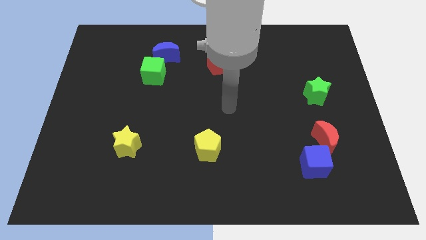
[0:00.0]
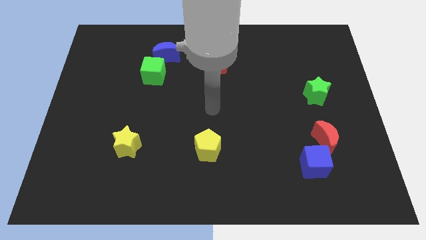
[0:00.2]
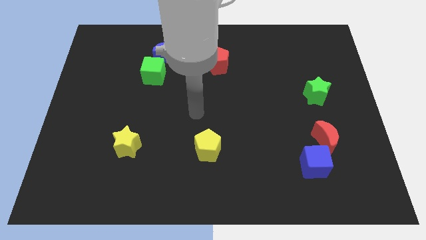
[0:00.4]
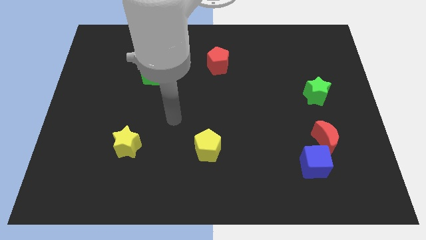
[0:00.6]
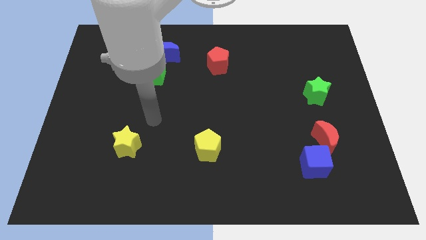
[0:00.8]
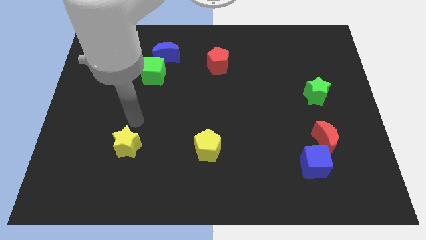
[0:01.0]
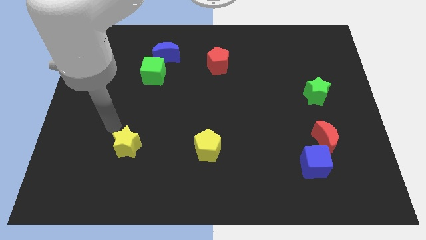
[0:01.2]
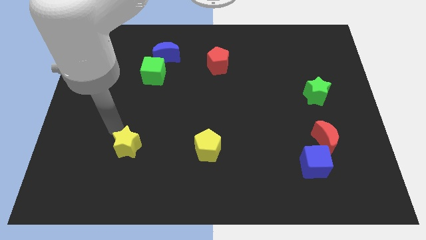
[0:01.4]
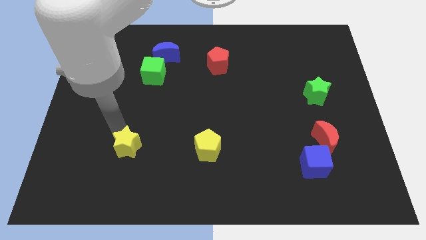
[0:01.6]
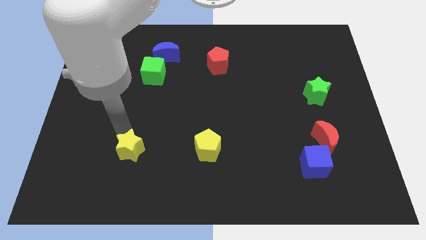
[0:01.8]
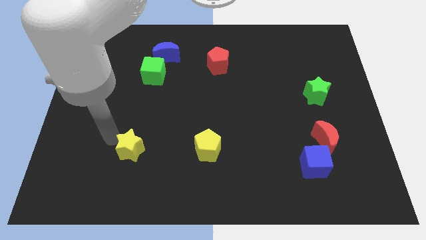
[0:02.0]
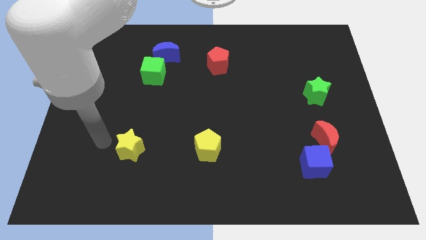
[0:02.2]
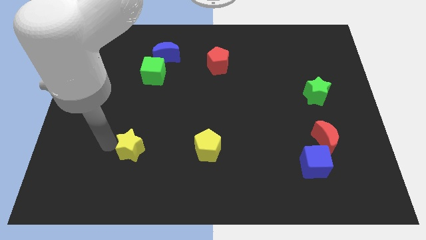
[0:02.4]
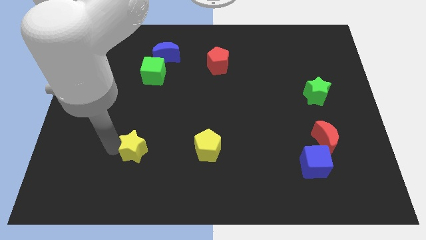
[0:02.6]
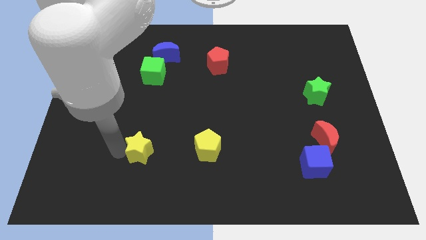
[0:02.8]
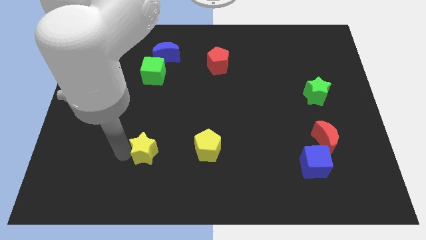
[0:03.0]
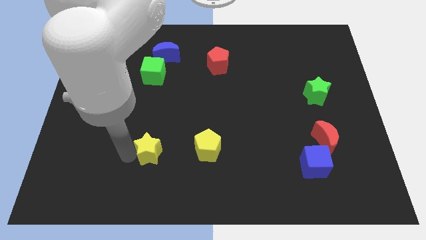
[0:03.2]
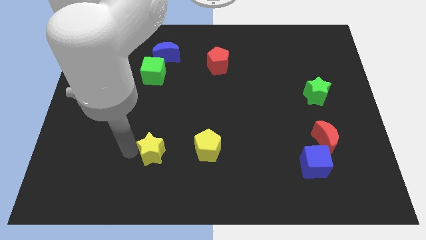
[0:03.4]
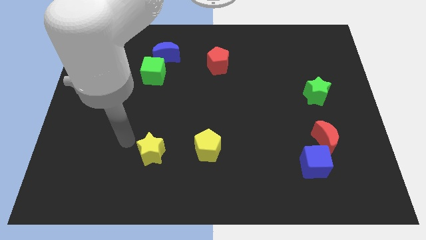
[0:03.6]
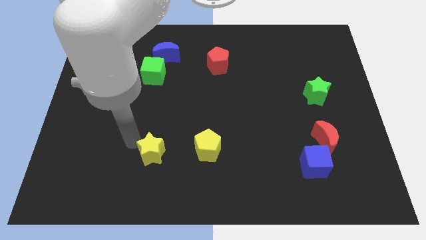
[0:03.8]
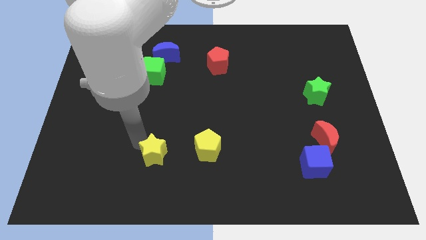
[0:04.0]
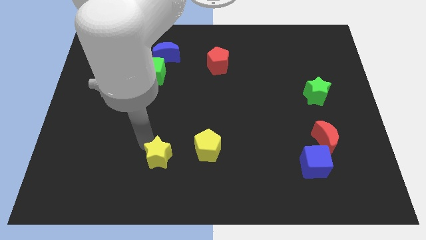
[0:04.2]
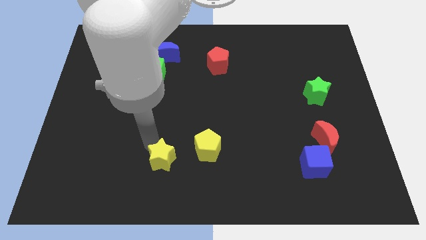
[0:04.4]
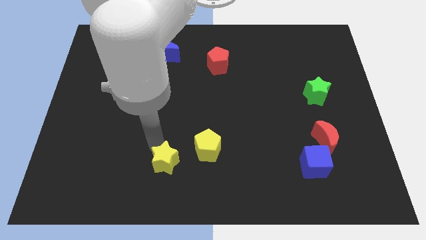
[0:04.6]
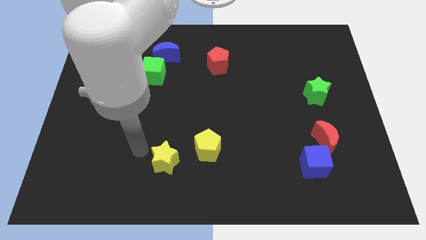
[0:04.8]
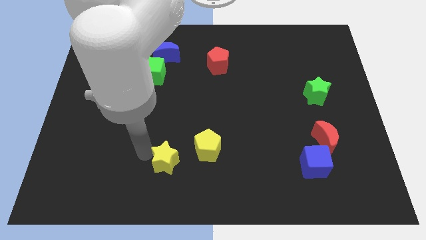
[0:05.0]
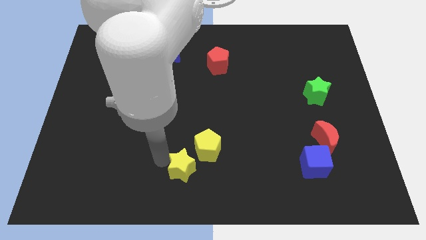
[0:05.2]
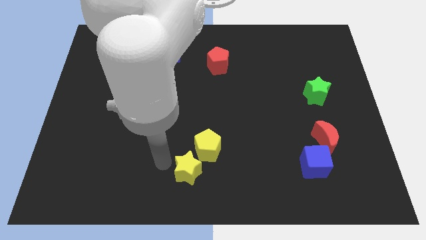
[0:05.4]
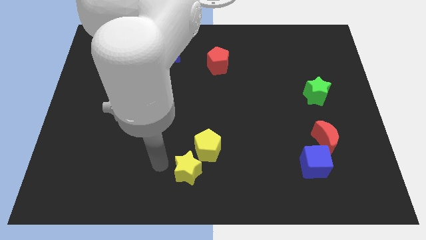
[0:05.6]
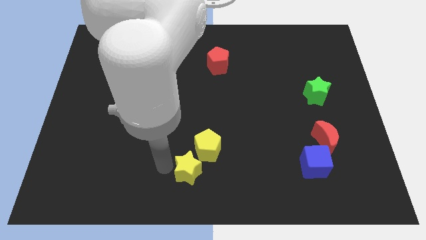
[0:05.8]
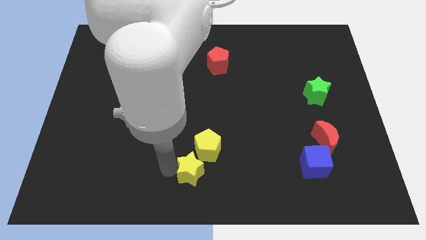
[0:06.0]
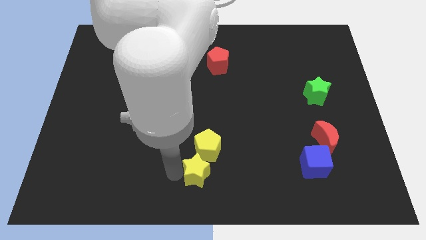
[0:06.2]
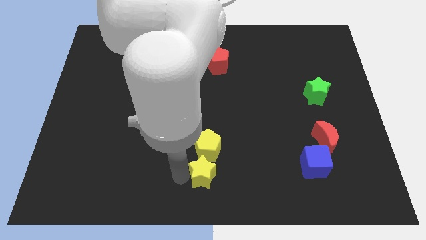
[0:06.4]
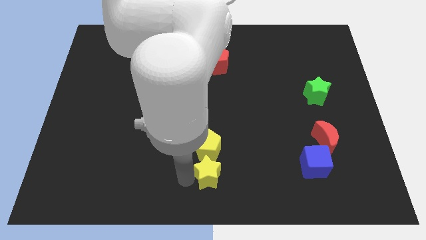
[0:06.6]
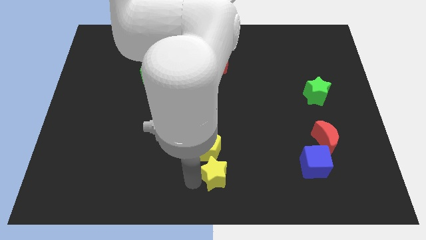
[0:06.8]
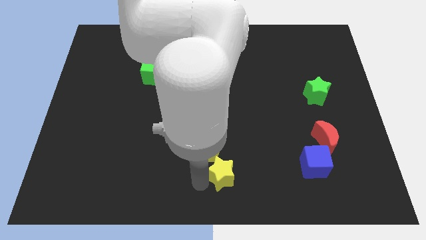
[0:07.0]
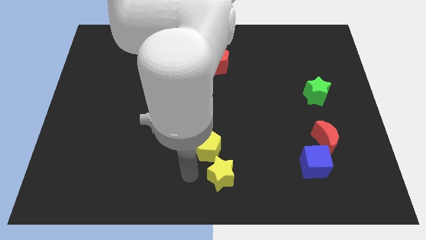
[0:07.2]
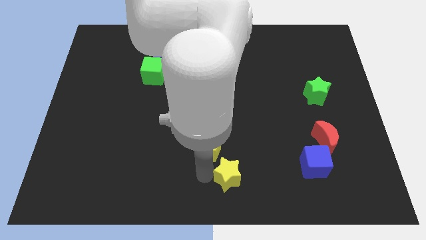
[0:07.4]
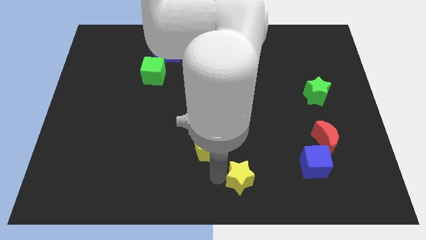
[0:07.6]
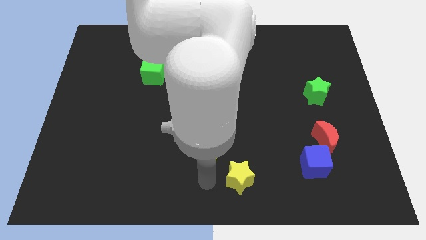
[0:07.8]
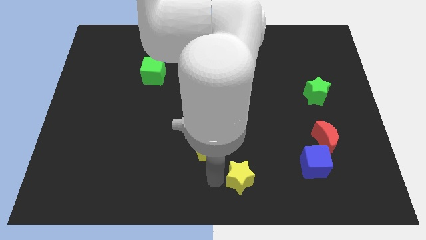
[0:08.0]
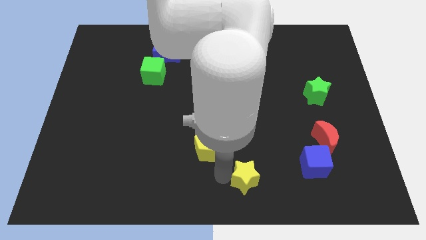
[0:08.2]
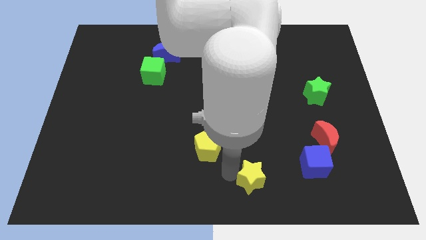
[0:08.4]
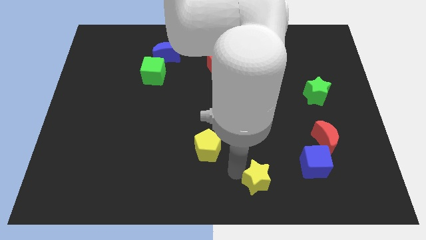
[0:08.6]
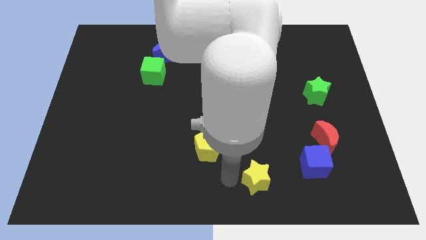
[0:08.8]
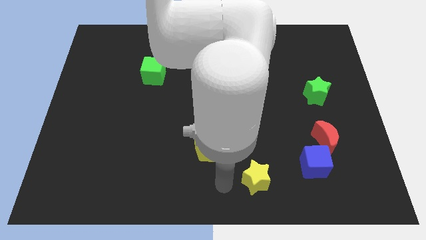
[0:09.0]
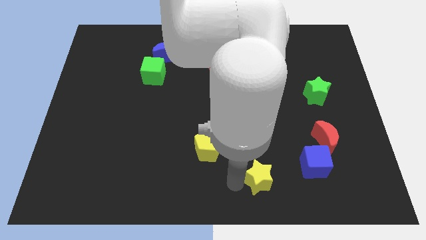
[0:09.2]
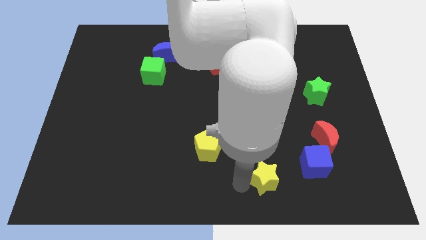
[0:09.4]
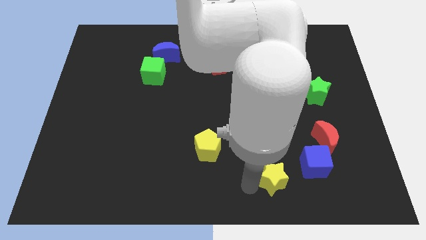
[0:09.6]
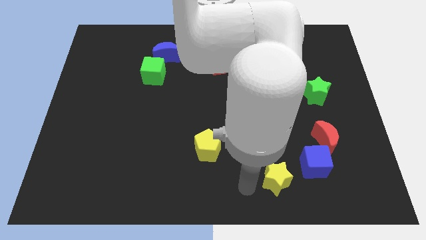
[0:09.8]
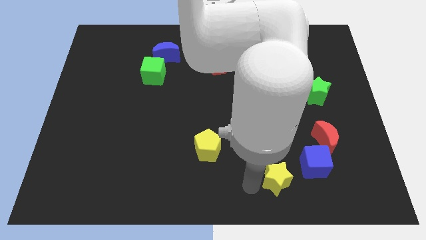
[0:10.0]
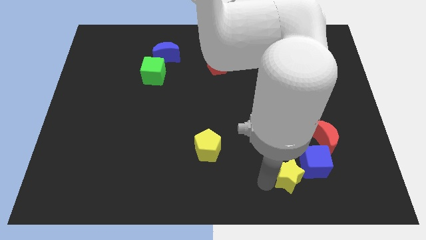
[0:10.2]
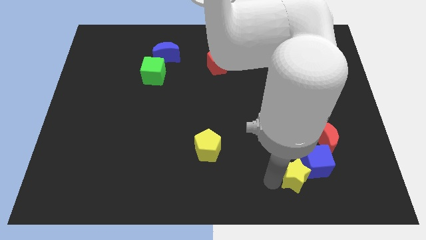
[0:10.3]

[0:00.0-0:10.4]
slide the yellow star to the blue cube

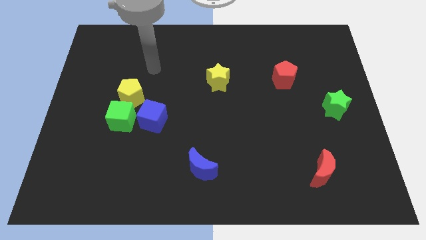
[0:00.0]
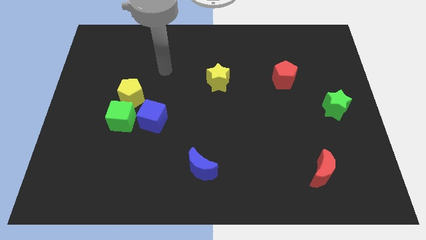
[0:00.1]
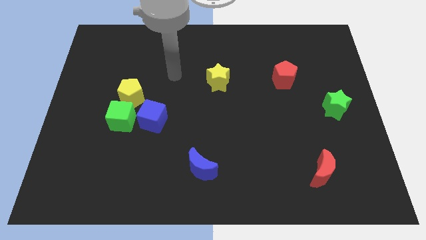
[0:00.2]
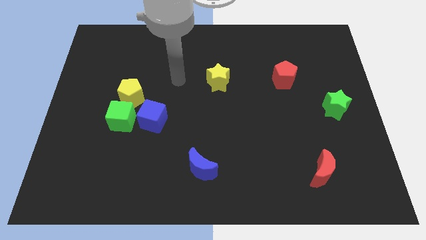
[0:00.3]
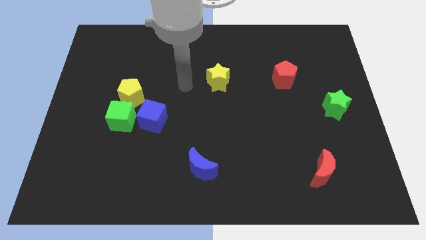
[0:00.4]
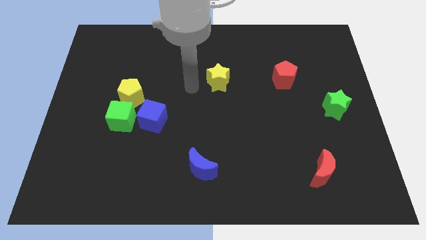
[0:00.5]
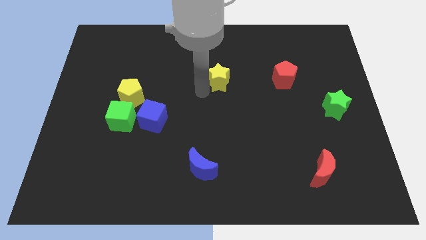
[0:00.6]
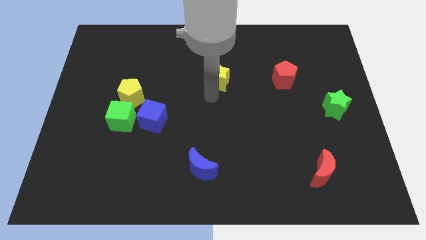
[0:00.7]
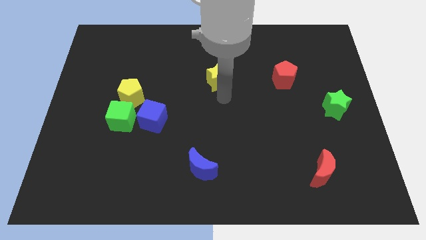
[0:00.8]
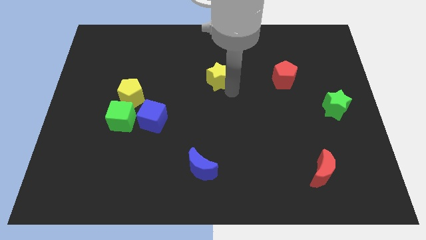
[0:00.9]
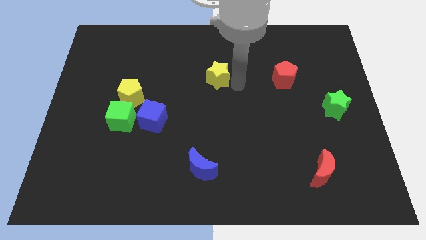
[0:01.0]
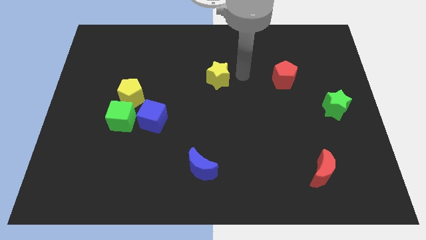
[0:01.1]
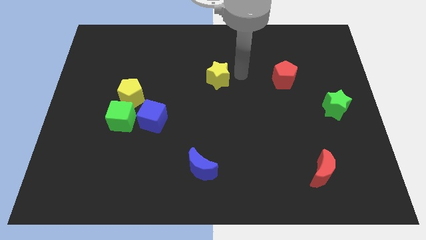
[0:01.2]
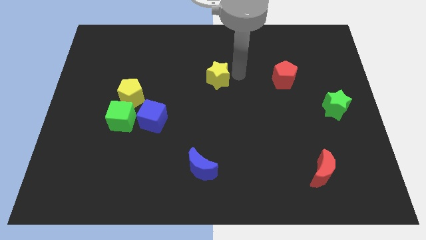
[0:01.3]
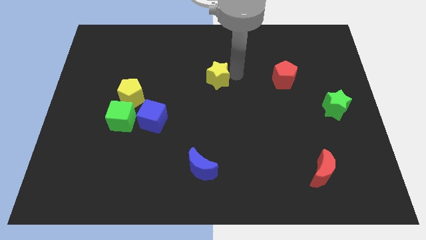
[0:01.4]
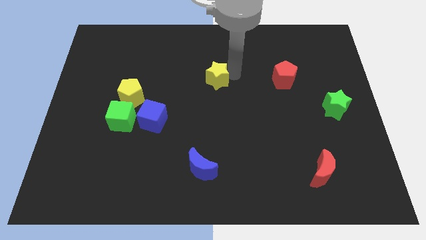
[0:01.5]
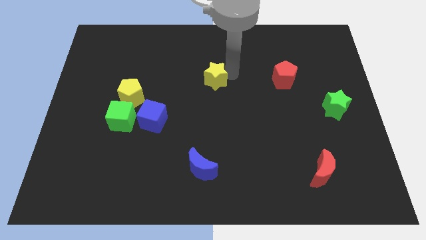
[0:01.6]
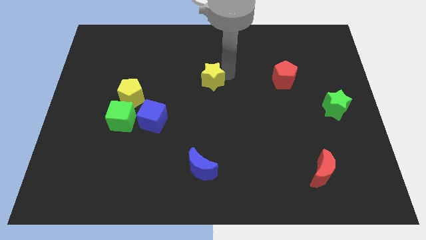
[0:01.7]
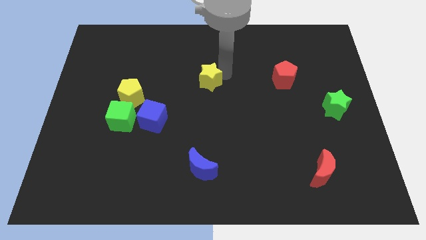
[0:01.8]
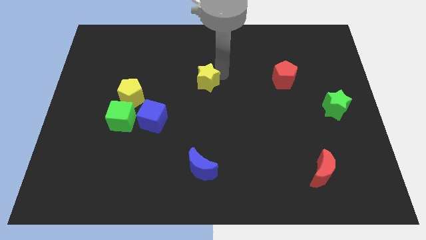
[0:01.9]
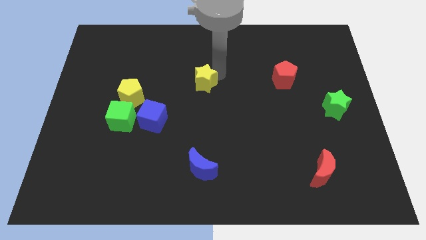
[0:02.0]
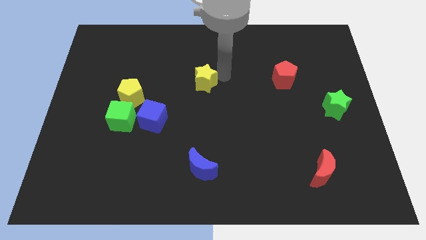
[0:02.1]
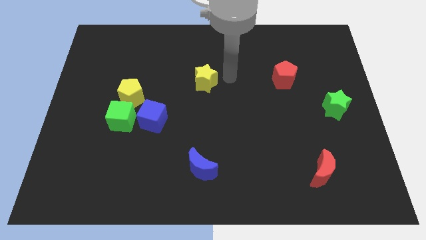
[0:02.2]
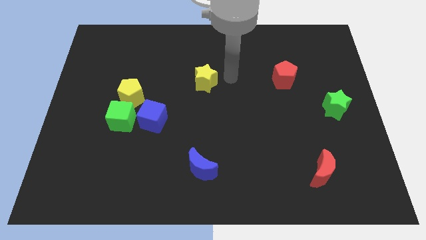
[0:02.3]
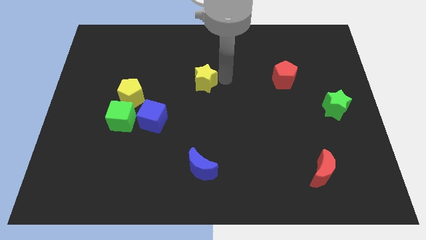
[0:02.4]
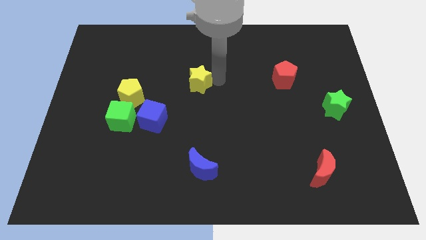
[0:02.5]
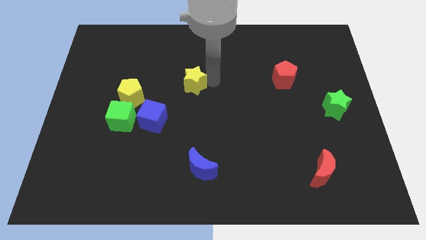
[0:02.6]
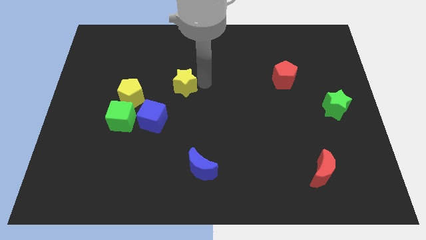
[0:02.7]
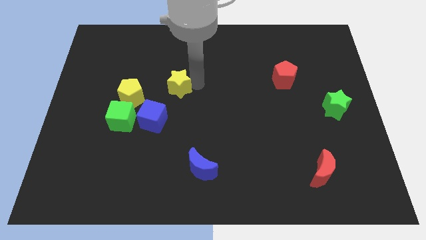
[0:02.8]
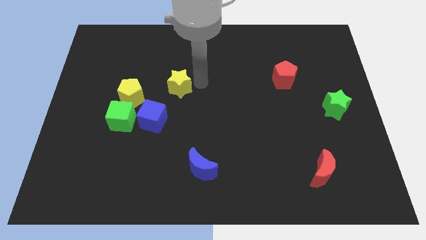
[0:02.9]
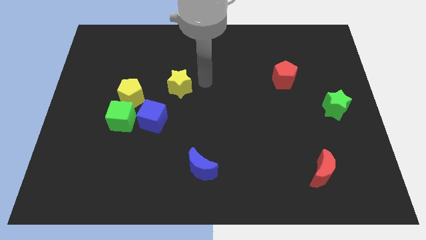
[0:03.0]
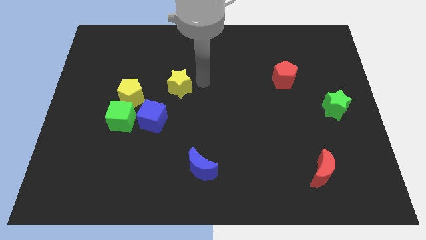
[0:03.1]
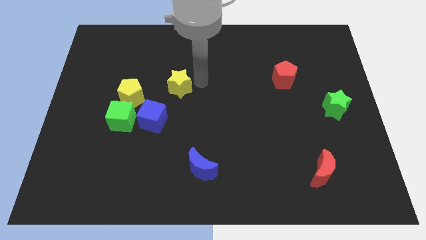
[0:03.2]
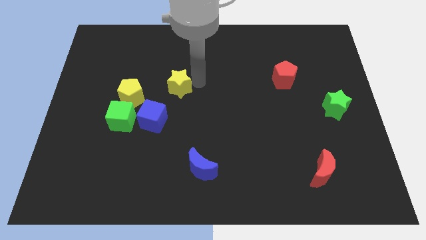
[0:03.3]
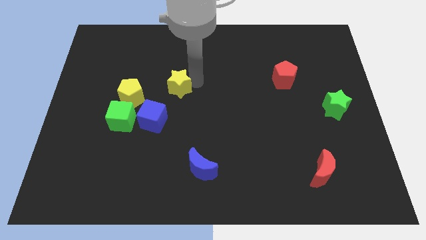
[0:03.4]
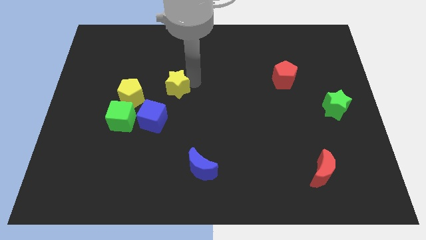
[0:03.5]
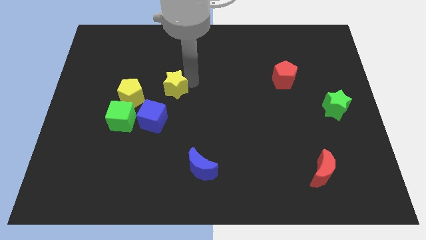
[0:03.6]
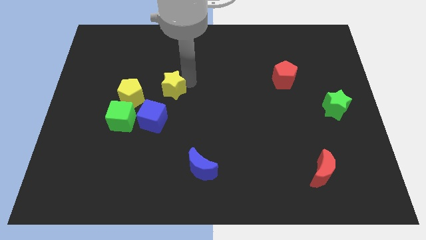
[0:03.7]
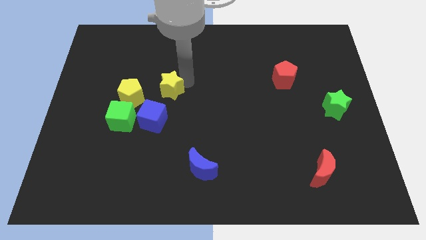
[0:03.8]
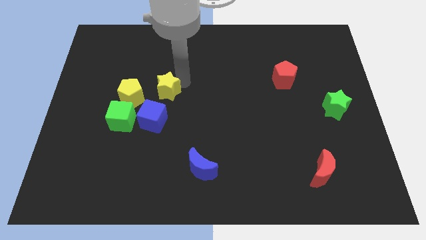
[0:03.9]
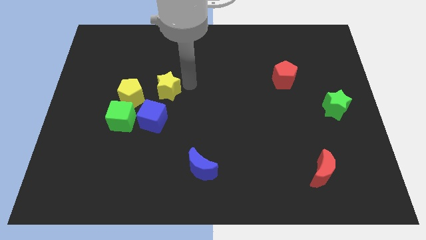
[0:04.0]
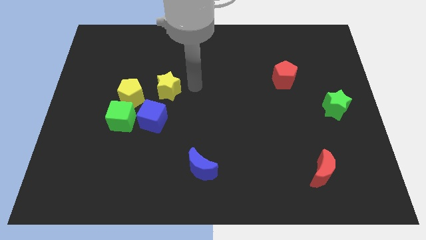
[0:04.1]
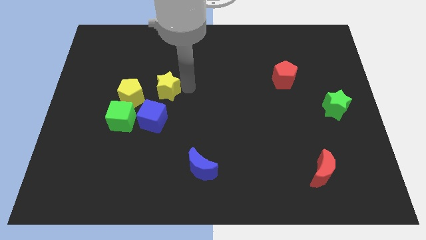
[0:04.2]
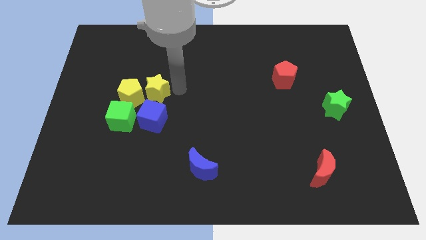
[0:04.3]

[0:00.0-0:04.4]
slide the yellow star to the yellow pentagon
